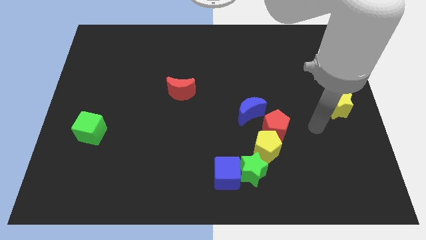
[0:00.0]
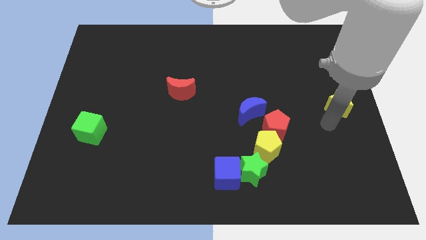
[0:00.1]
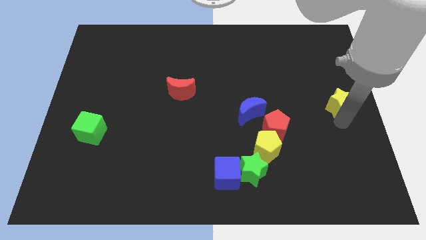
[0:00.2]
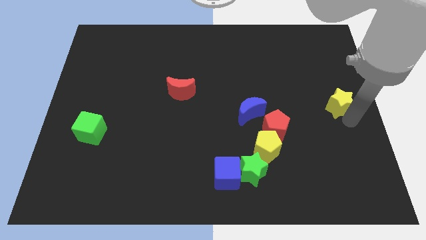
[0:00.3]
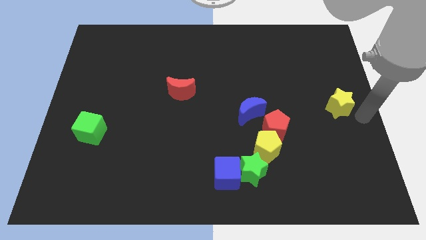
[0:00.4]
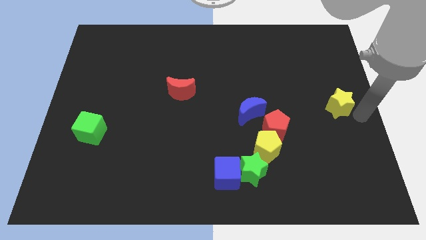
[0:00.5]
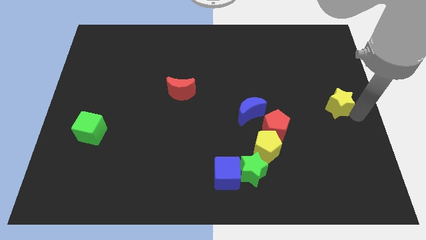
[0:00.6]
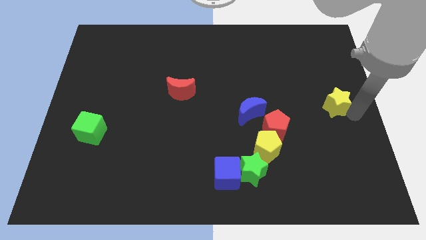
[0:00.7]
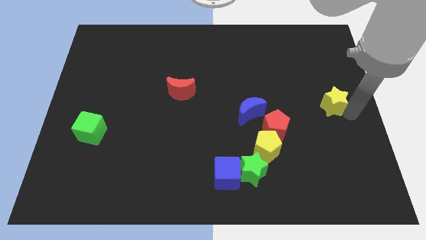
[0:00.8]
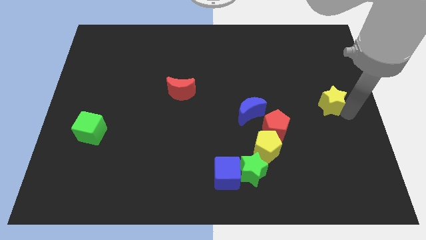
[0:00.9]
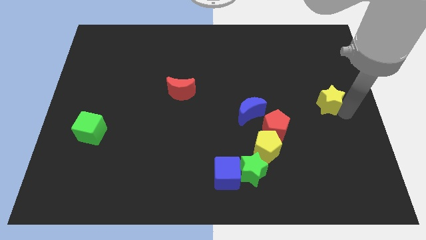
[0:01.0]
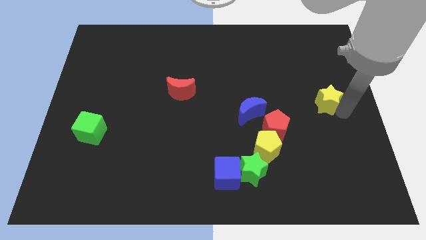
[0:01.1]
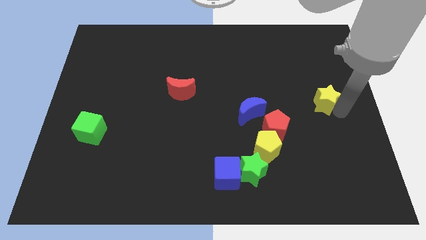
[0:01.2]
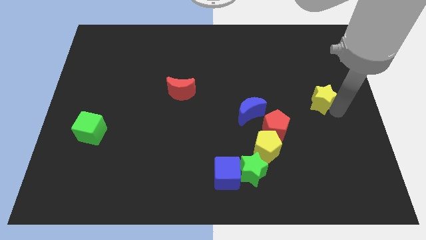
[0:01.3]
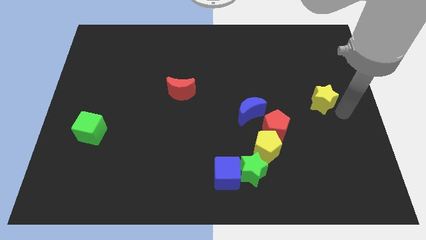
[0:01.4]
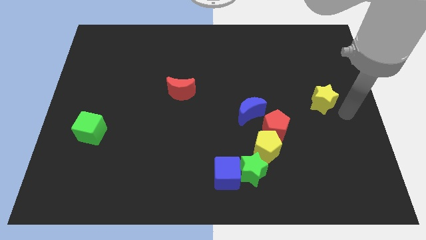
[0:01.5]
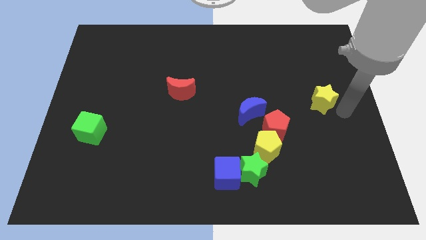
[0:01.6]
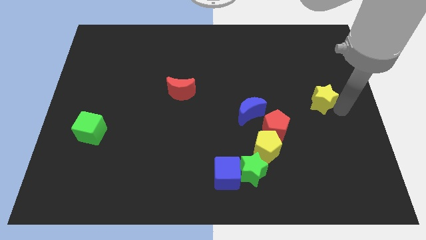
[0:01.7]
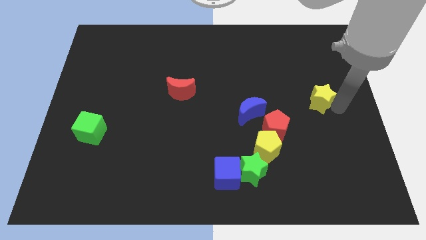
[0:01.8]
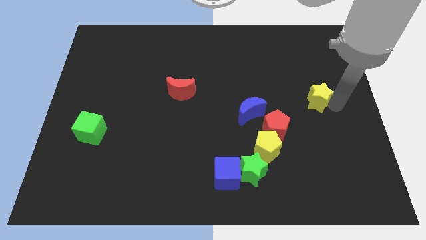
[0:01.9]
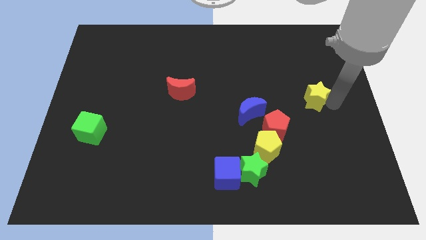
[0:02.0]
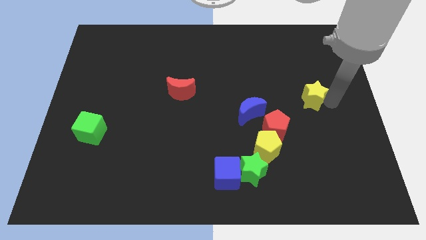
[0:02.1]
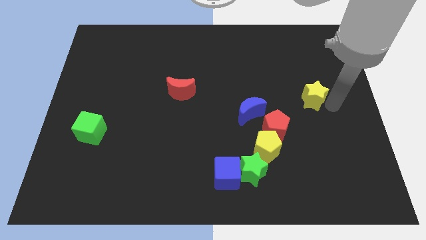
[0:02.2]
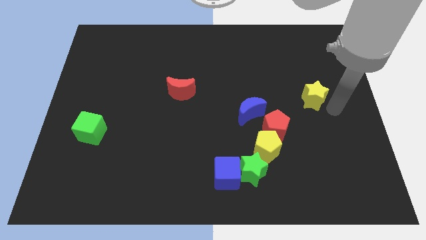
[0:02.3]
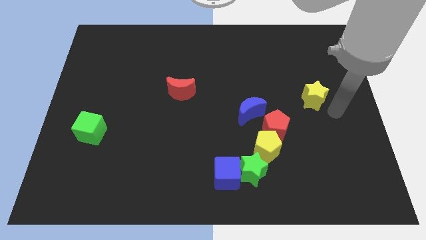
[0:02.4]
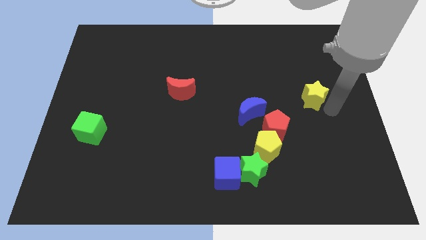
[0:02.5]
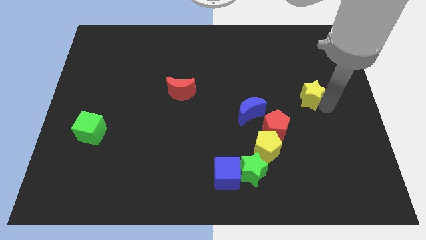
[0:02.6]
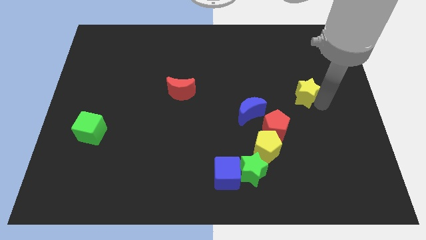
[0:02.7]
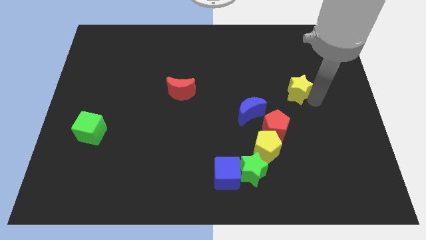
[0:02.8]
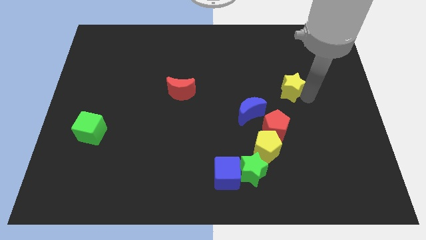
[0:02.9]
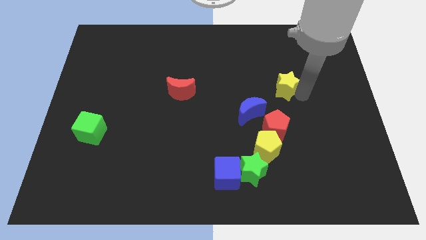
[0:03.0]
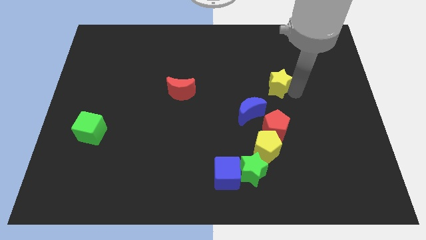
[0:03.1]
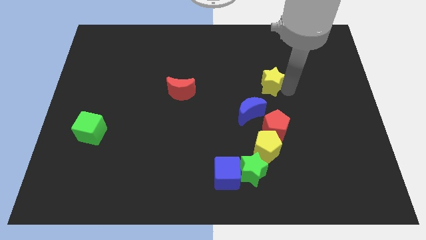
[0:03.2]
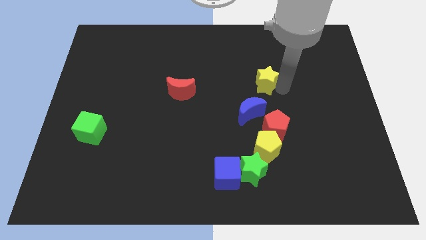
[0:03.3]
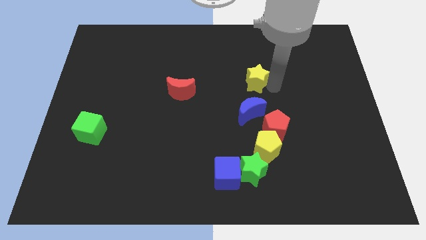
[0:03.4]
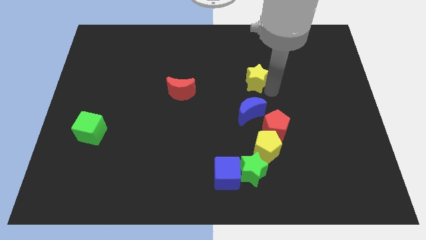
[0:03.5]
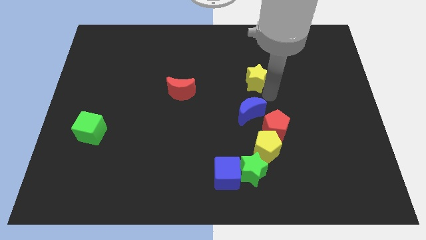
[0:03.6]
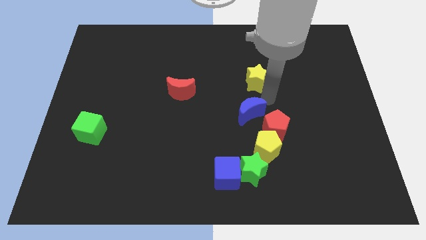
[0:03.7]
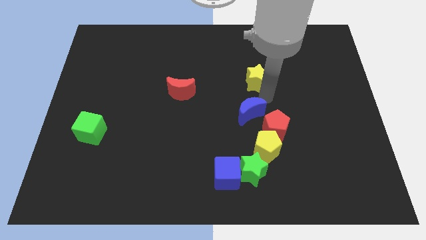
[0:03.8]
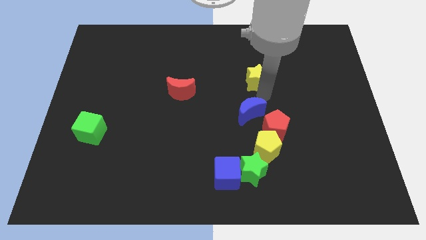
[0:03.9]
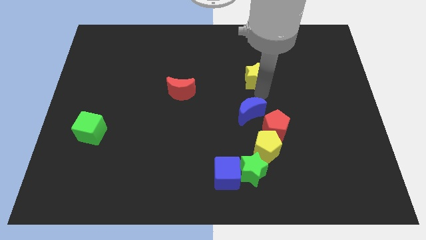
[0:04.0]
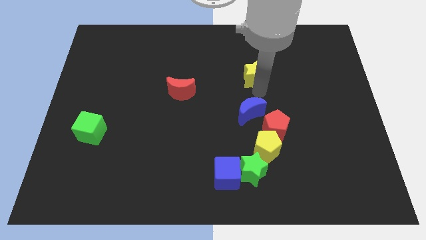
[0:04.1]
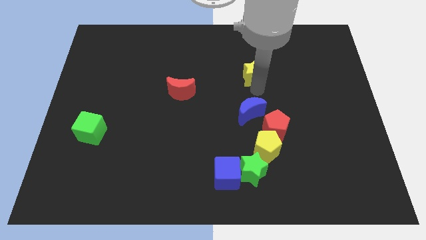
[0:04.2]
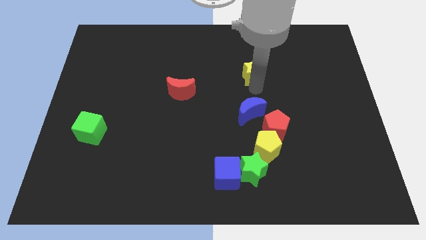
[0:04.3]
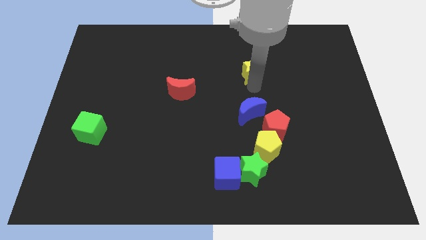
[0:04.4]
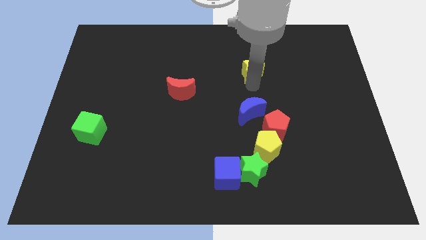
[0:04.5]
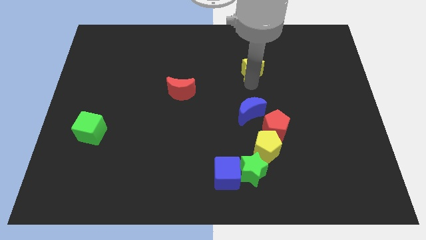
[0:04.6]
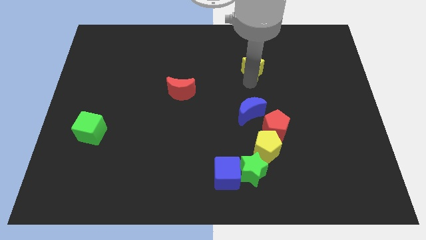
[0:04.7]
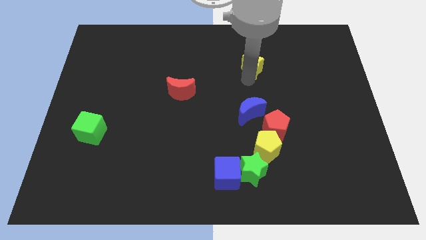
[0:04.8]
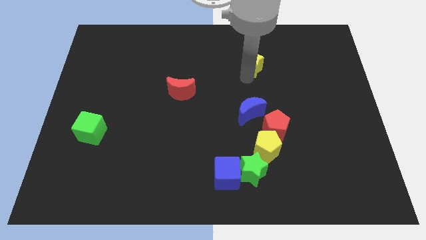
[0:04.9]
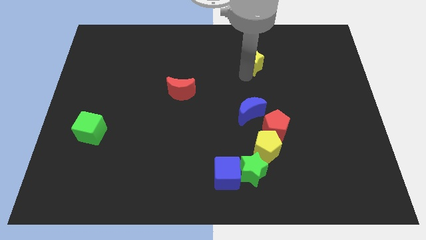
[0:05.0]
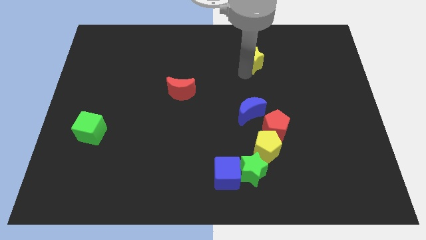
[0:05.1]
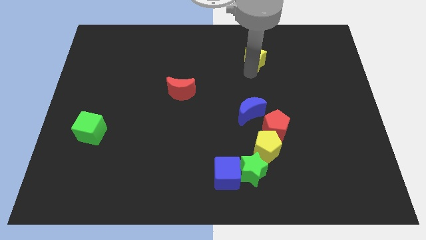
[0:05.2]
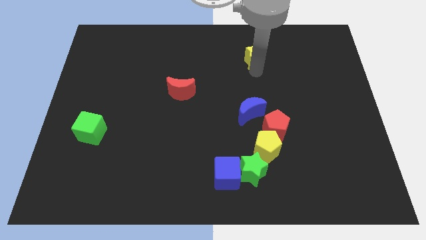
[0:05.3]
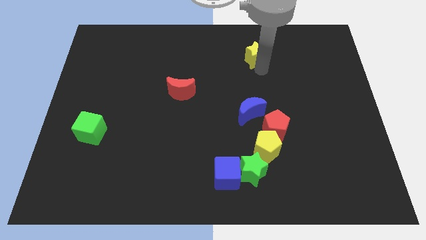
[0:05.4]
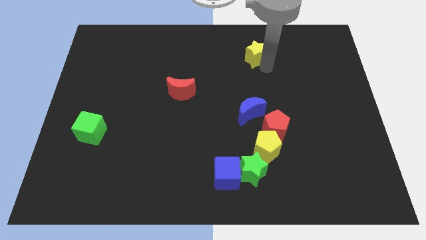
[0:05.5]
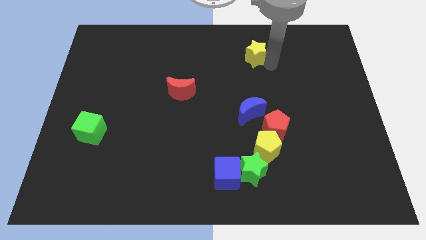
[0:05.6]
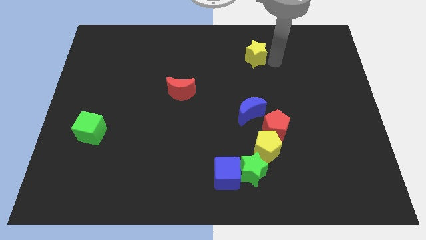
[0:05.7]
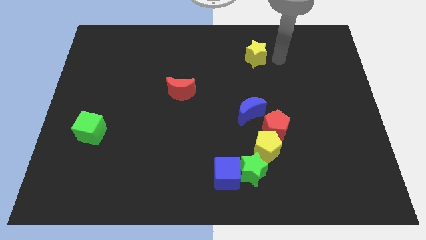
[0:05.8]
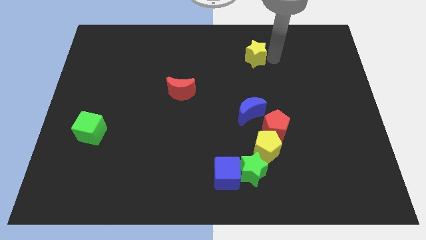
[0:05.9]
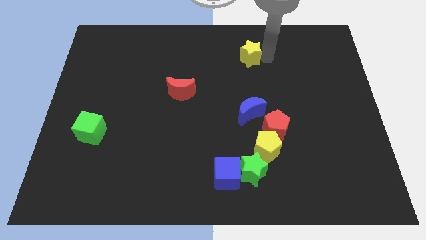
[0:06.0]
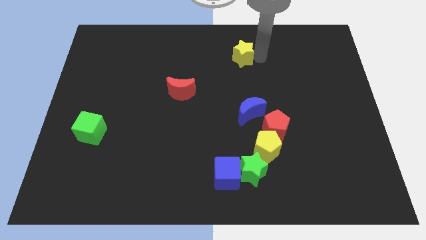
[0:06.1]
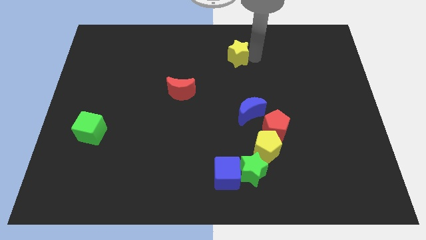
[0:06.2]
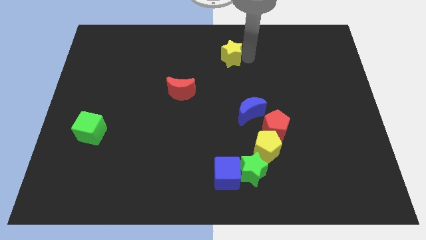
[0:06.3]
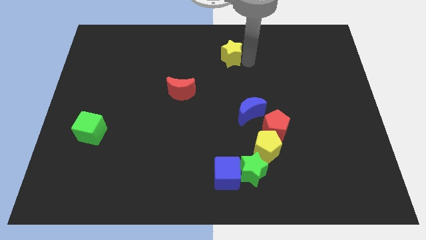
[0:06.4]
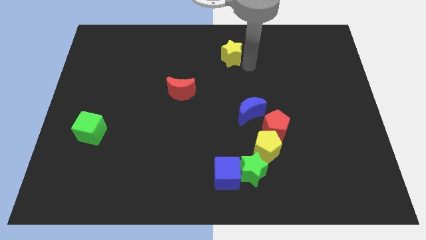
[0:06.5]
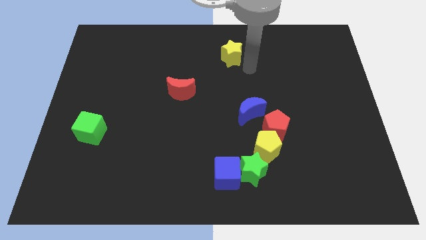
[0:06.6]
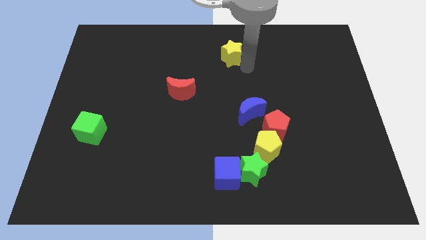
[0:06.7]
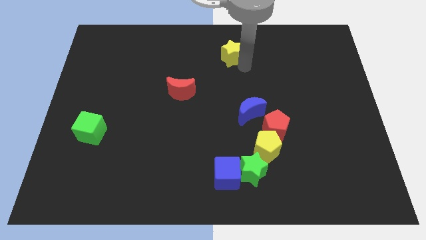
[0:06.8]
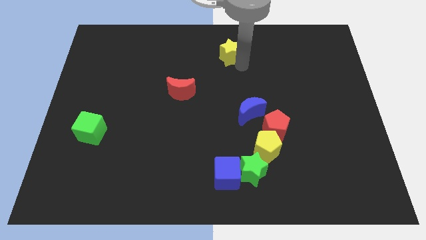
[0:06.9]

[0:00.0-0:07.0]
slide the yellow star to the top side
